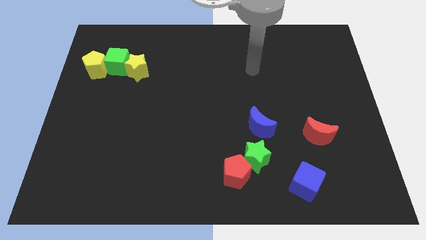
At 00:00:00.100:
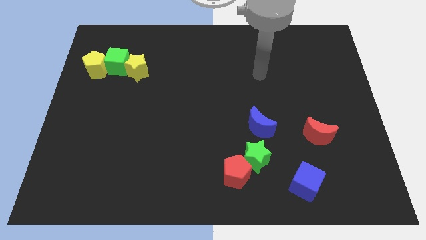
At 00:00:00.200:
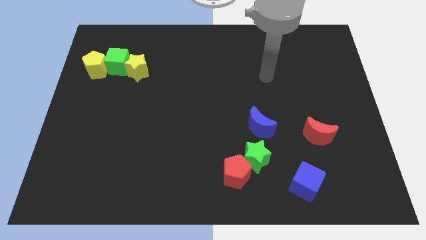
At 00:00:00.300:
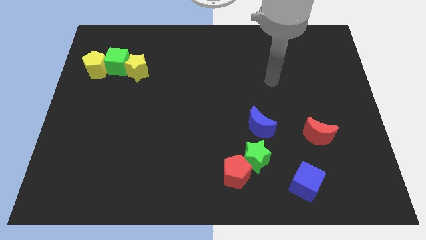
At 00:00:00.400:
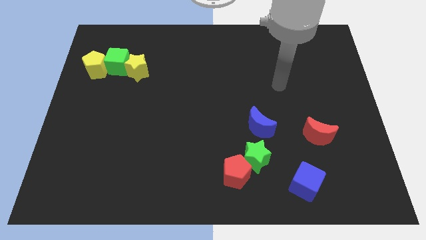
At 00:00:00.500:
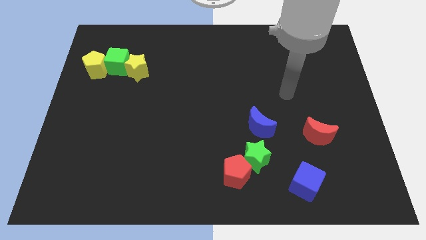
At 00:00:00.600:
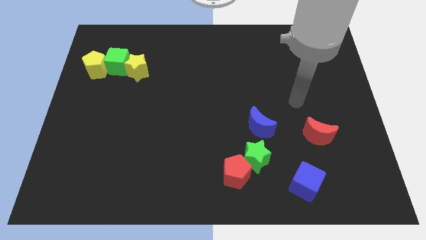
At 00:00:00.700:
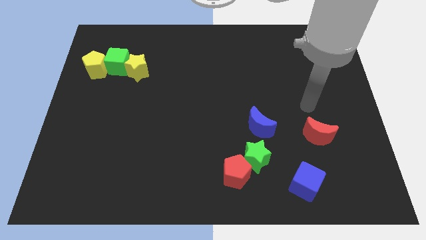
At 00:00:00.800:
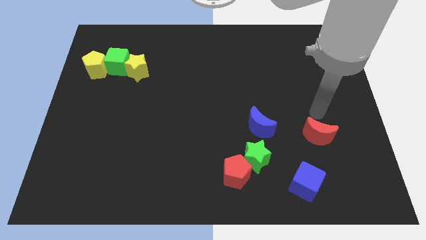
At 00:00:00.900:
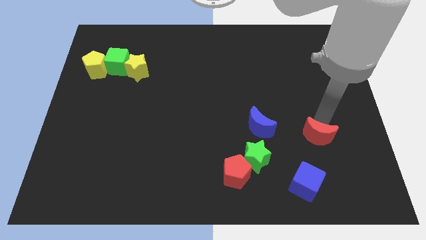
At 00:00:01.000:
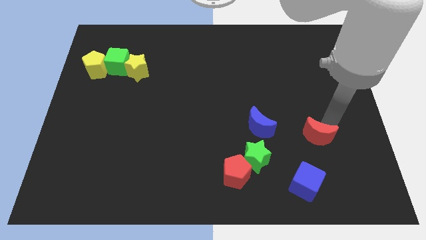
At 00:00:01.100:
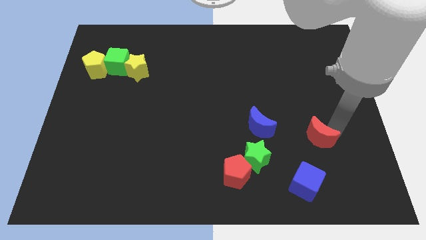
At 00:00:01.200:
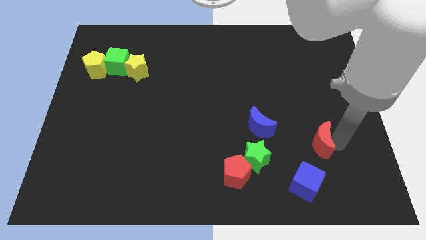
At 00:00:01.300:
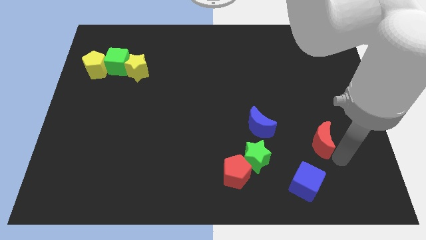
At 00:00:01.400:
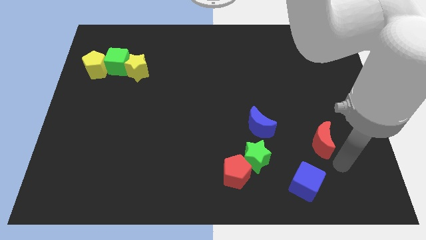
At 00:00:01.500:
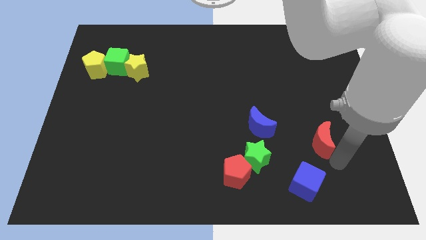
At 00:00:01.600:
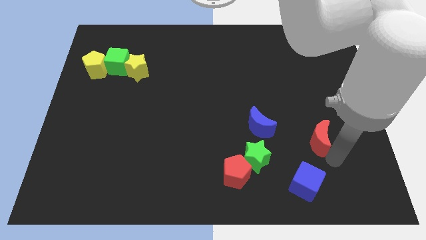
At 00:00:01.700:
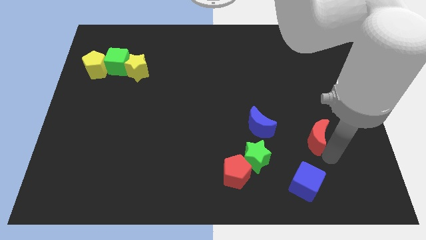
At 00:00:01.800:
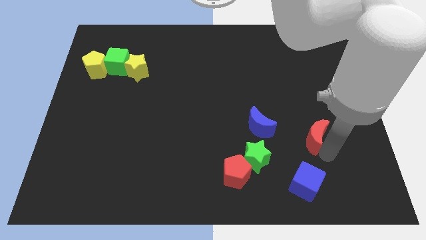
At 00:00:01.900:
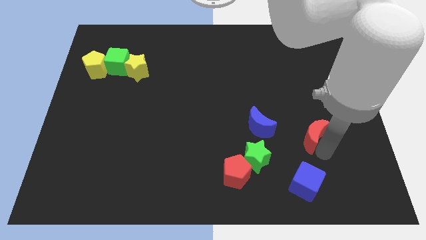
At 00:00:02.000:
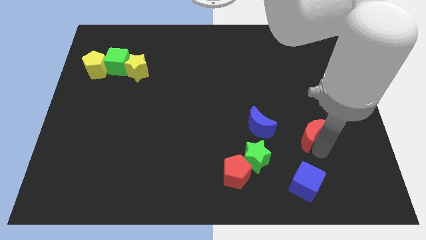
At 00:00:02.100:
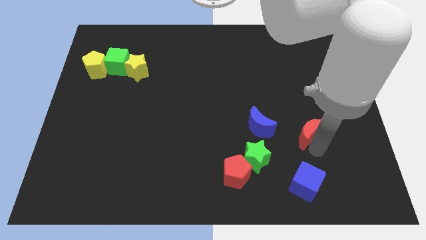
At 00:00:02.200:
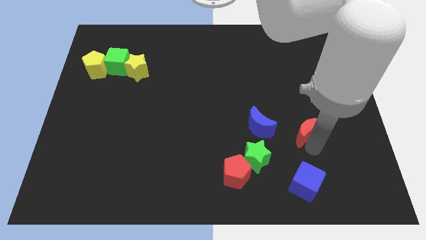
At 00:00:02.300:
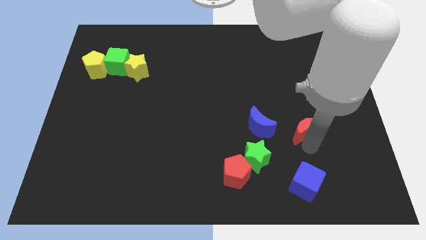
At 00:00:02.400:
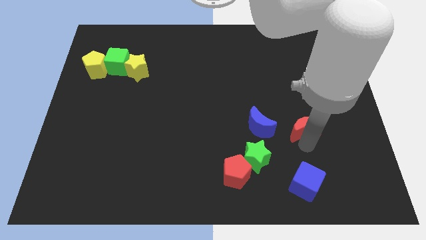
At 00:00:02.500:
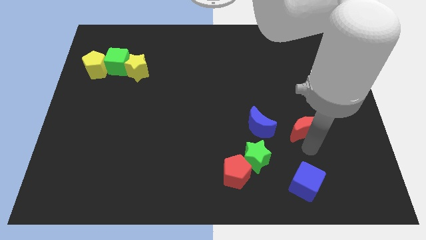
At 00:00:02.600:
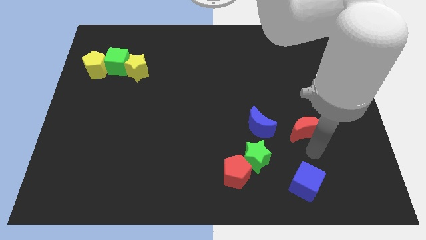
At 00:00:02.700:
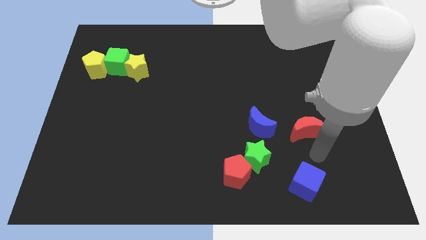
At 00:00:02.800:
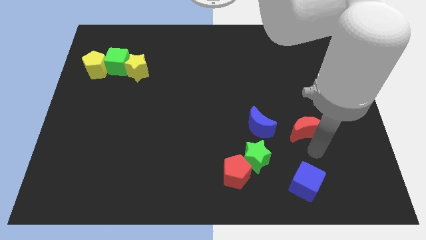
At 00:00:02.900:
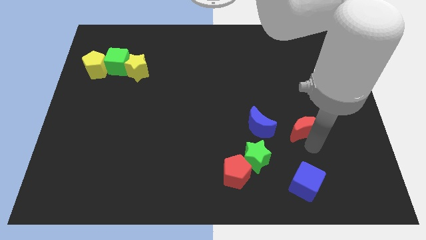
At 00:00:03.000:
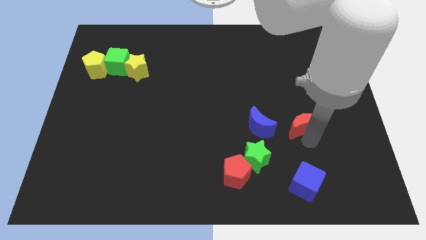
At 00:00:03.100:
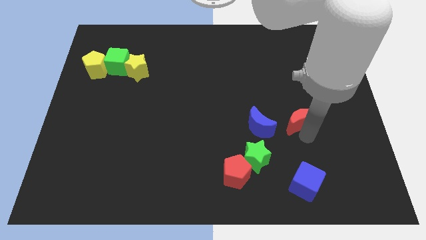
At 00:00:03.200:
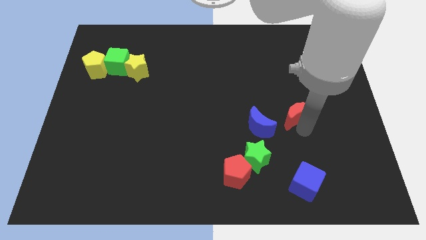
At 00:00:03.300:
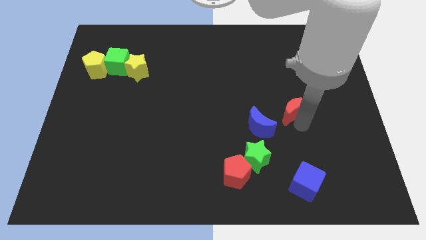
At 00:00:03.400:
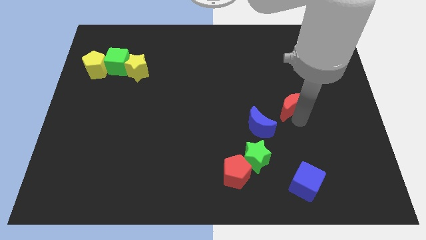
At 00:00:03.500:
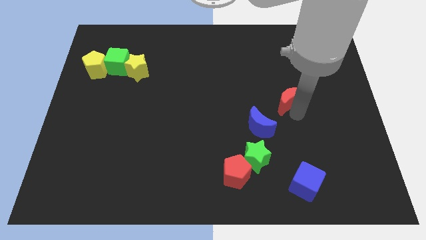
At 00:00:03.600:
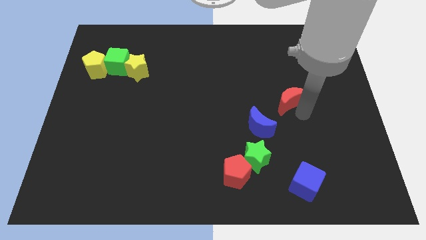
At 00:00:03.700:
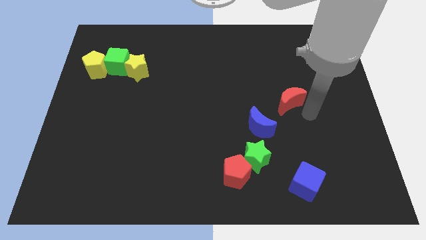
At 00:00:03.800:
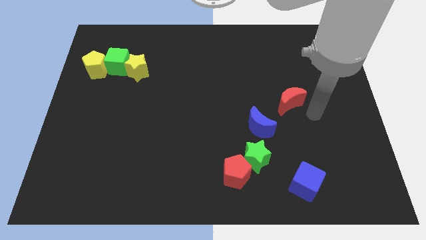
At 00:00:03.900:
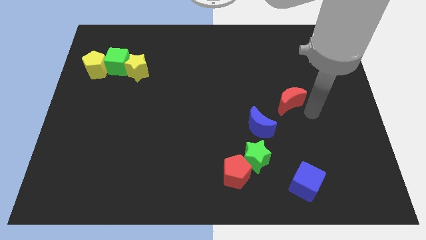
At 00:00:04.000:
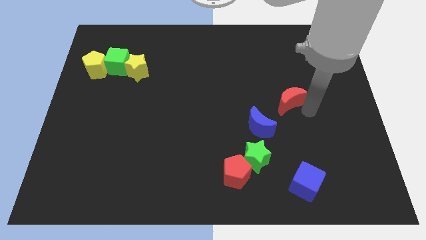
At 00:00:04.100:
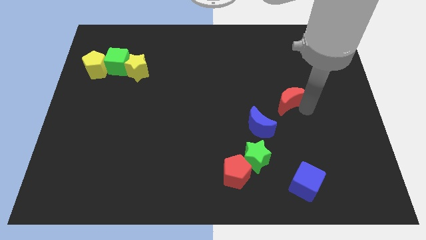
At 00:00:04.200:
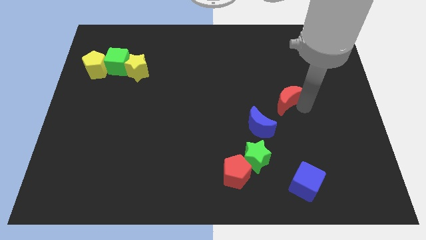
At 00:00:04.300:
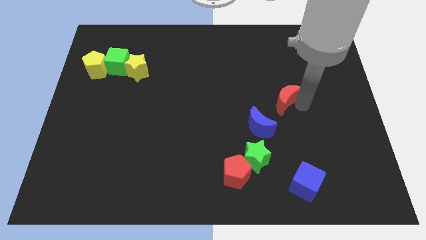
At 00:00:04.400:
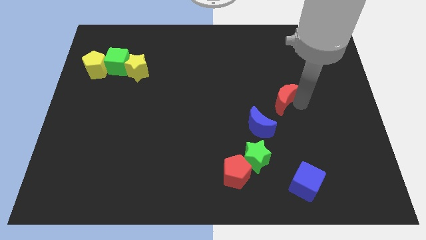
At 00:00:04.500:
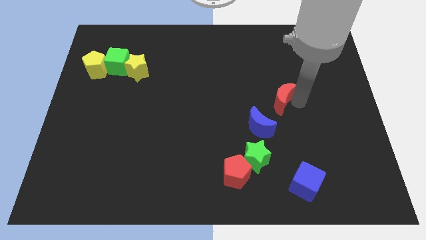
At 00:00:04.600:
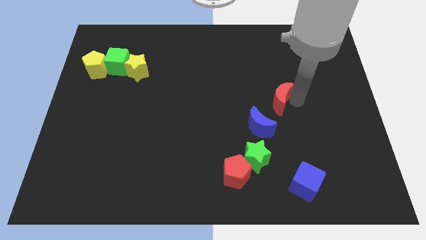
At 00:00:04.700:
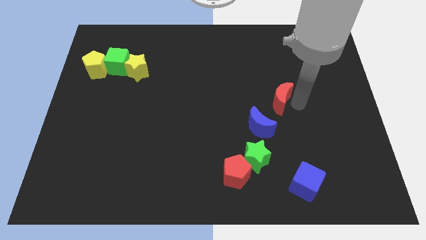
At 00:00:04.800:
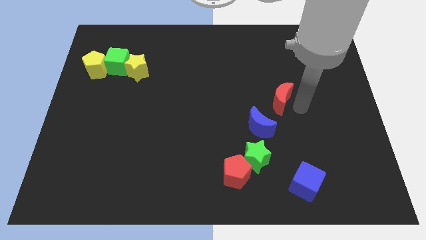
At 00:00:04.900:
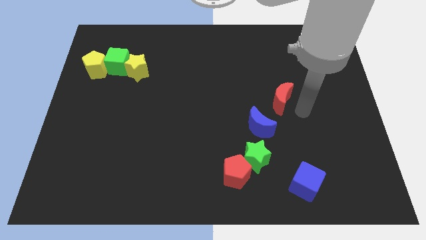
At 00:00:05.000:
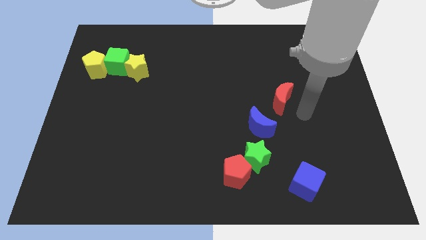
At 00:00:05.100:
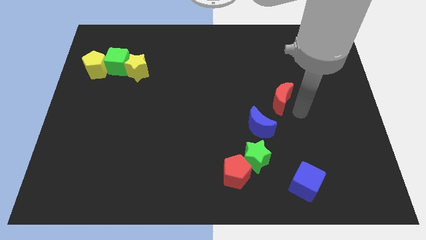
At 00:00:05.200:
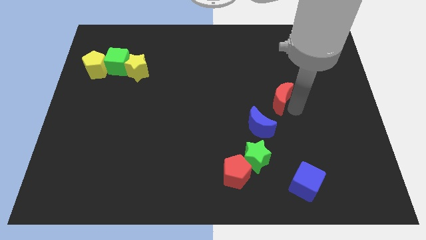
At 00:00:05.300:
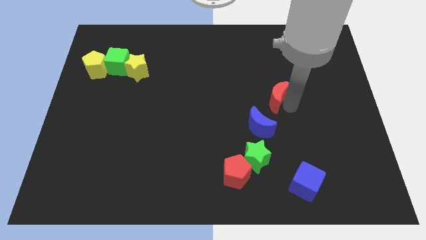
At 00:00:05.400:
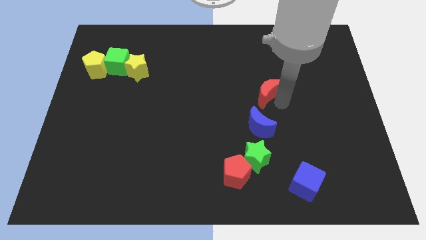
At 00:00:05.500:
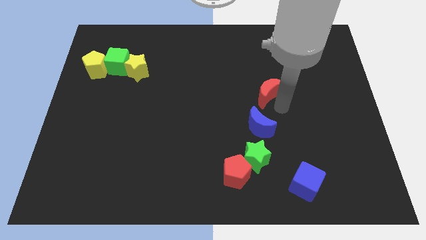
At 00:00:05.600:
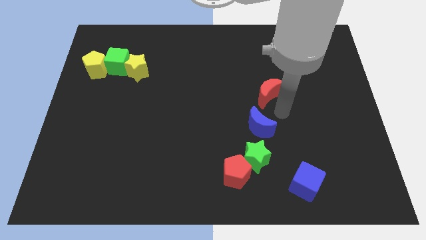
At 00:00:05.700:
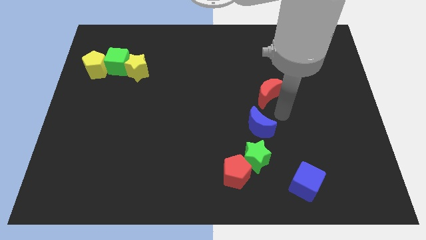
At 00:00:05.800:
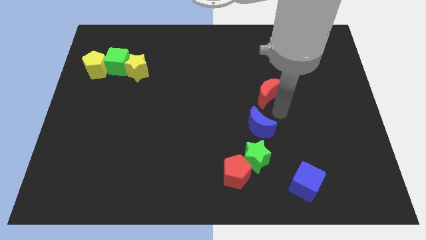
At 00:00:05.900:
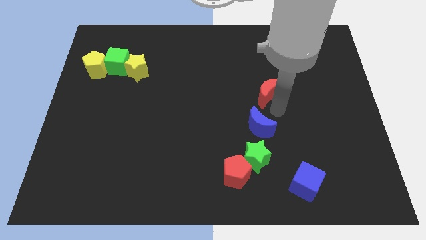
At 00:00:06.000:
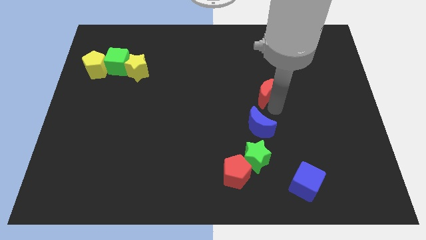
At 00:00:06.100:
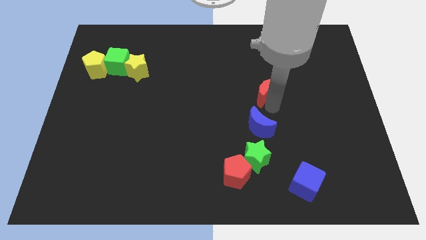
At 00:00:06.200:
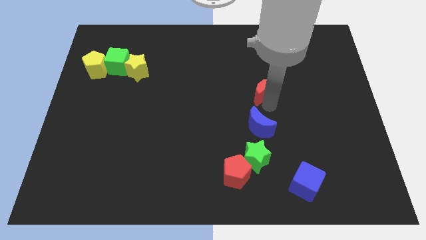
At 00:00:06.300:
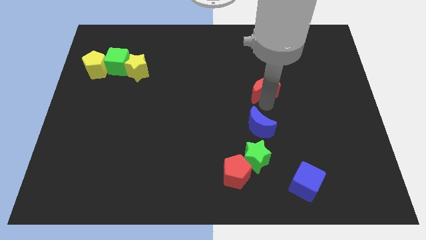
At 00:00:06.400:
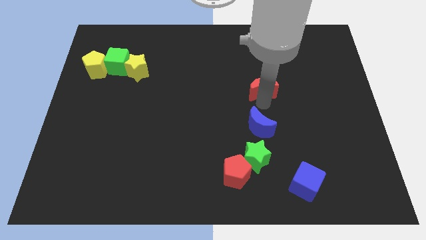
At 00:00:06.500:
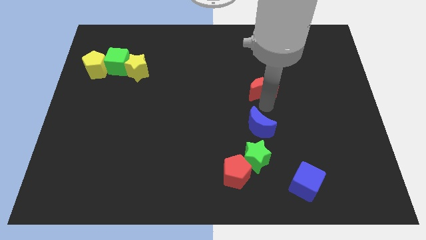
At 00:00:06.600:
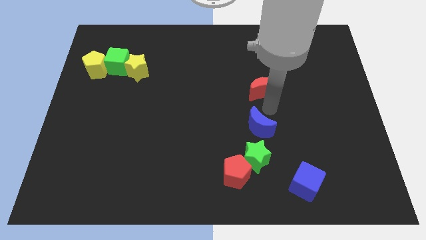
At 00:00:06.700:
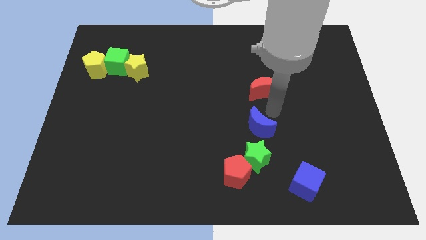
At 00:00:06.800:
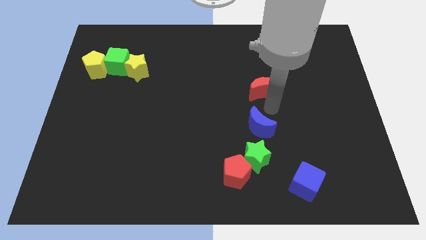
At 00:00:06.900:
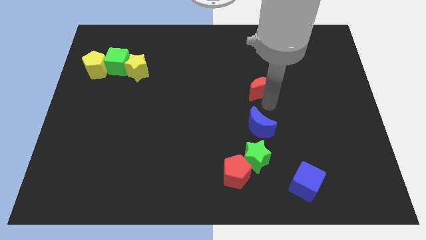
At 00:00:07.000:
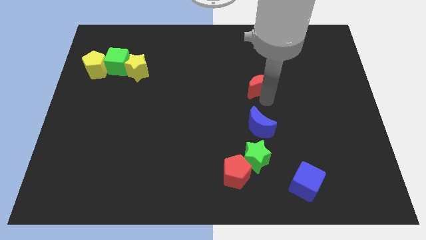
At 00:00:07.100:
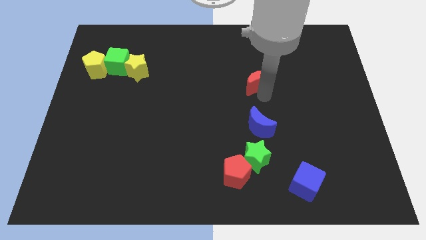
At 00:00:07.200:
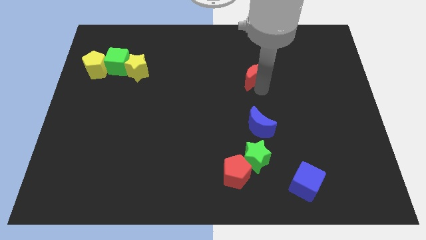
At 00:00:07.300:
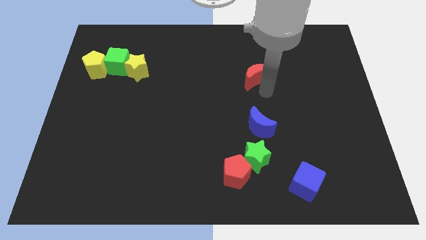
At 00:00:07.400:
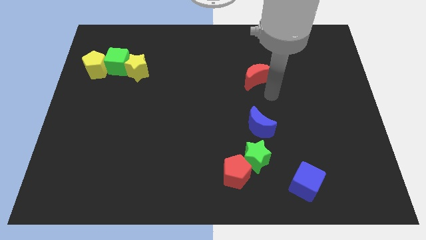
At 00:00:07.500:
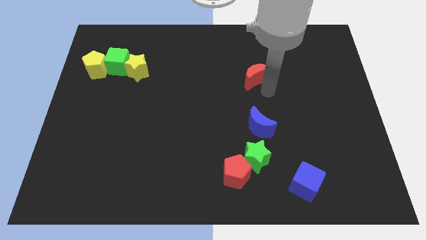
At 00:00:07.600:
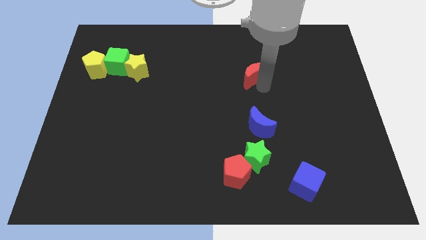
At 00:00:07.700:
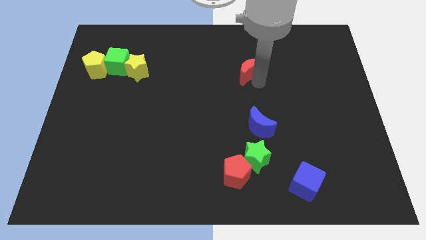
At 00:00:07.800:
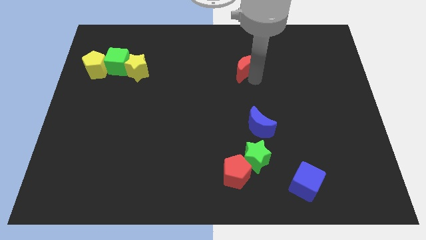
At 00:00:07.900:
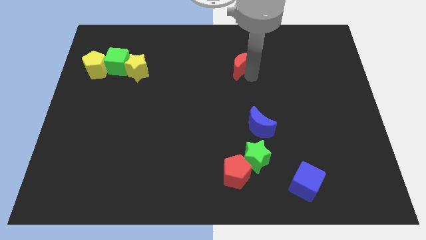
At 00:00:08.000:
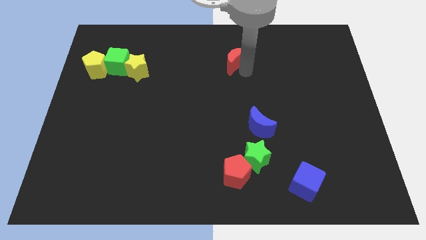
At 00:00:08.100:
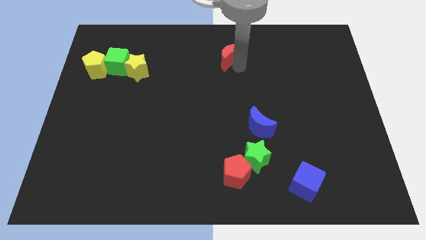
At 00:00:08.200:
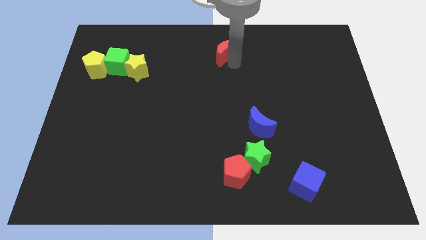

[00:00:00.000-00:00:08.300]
slide the red moon to the towards your base
